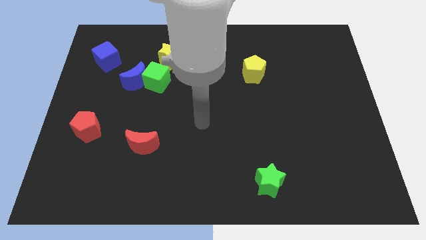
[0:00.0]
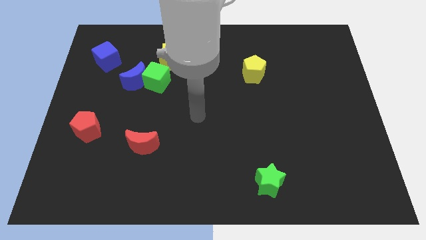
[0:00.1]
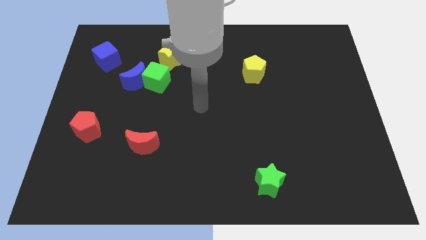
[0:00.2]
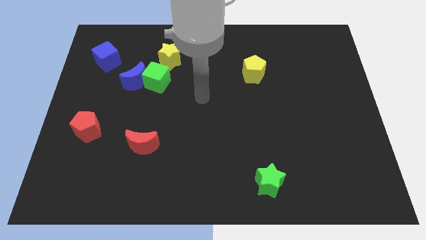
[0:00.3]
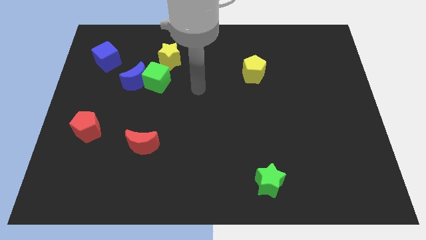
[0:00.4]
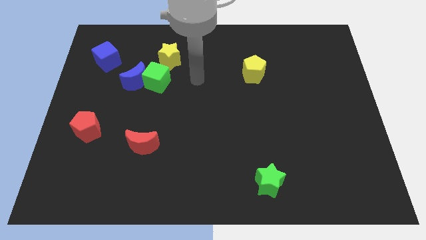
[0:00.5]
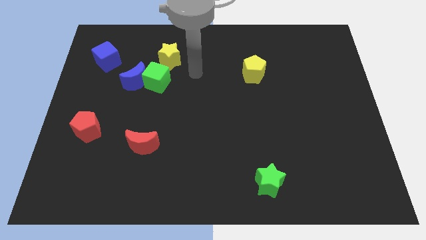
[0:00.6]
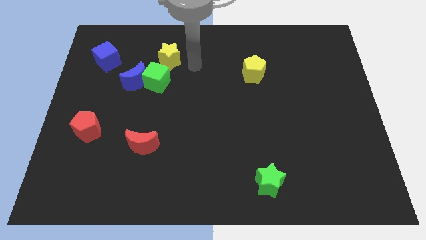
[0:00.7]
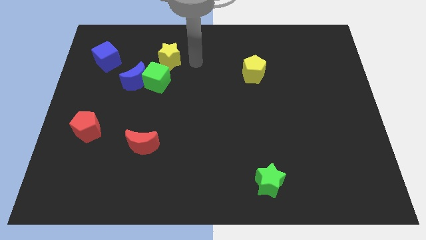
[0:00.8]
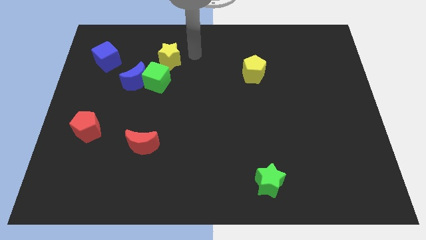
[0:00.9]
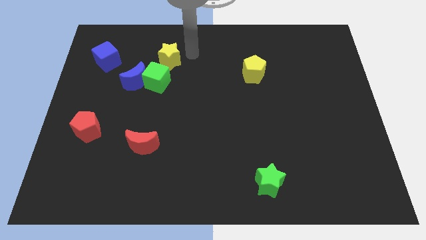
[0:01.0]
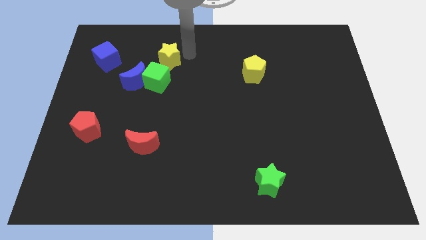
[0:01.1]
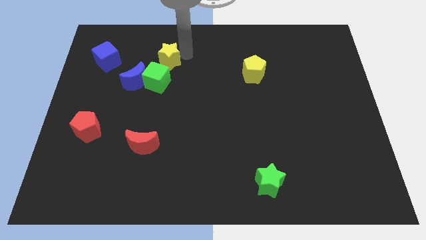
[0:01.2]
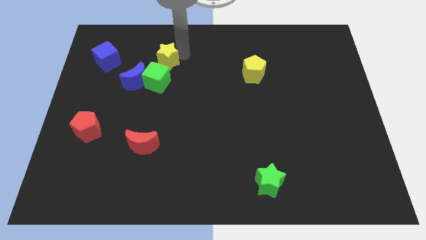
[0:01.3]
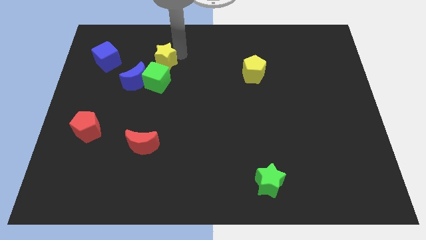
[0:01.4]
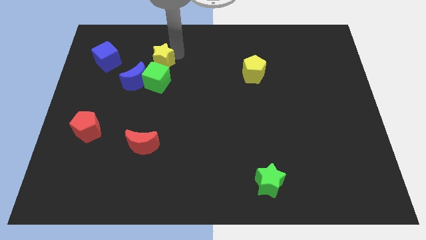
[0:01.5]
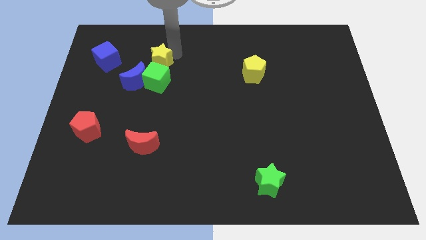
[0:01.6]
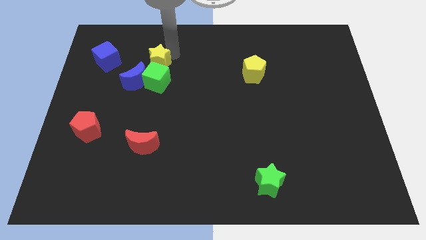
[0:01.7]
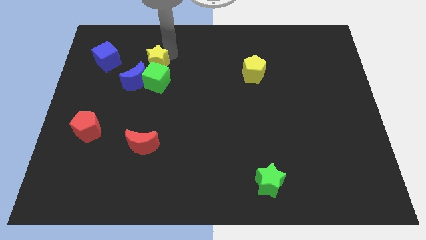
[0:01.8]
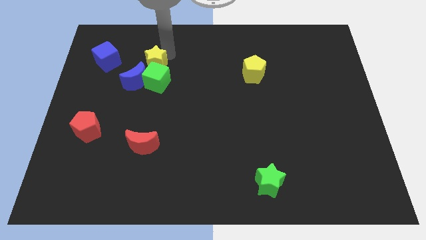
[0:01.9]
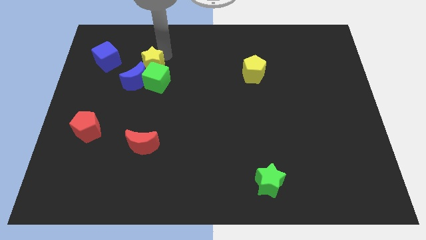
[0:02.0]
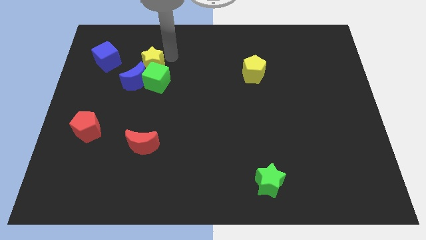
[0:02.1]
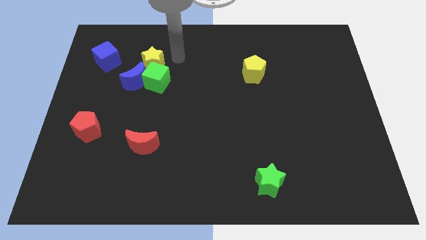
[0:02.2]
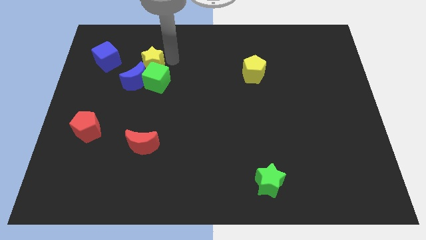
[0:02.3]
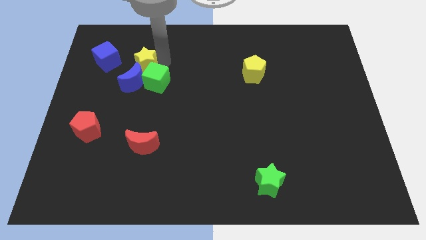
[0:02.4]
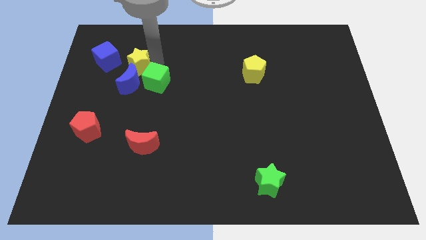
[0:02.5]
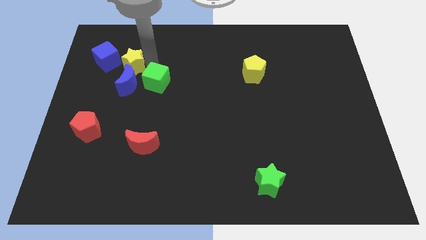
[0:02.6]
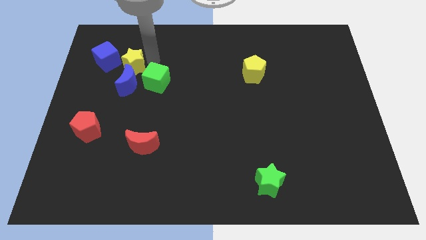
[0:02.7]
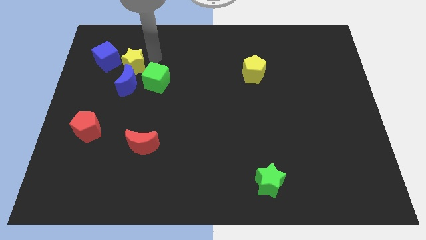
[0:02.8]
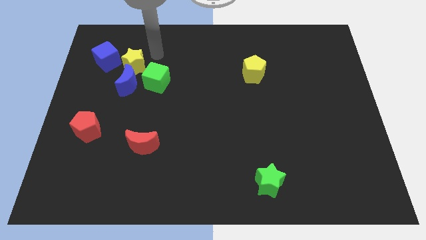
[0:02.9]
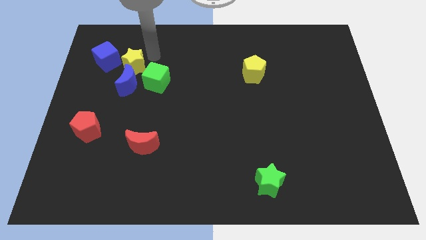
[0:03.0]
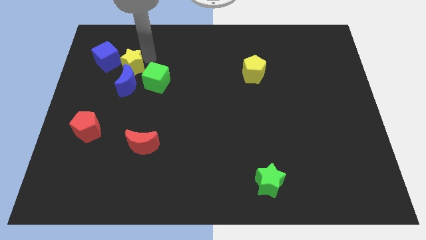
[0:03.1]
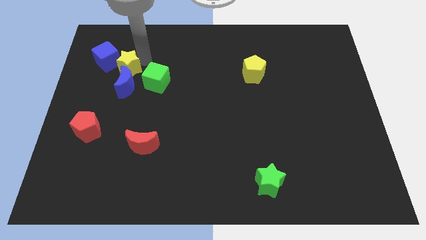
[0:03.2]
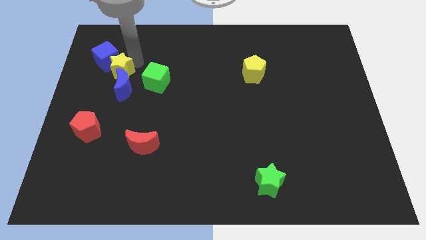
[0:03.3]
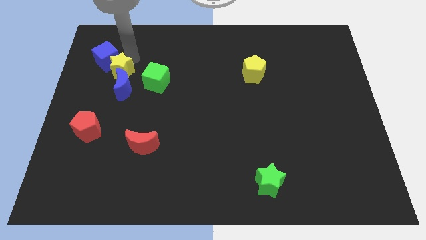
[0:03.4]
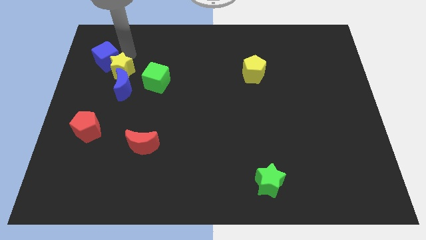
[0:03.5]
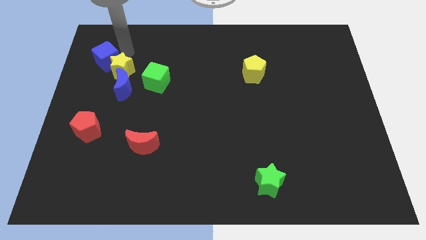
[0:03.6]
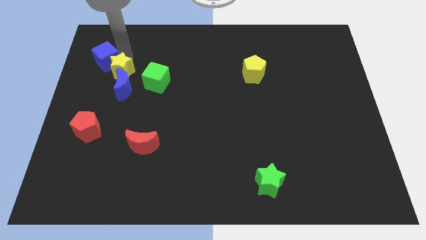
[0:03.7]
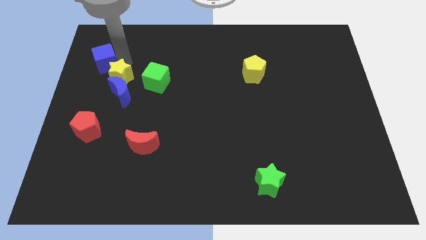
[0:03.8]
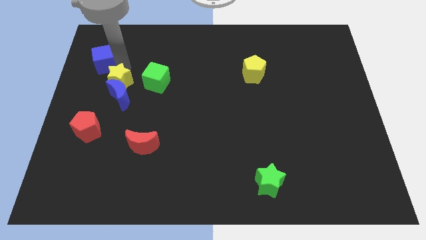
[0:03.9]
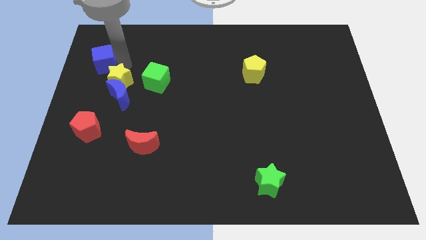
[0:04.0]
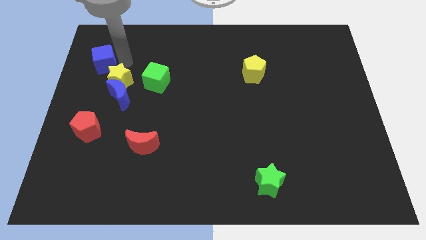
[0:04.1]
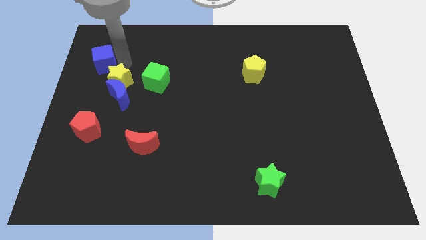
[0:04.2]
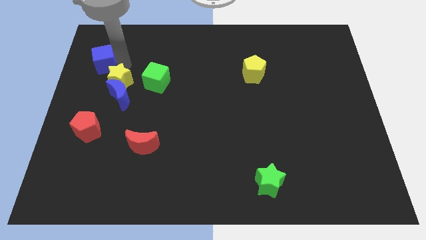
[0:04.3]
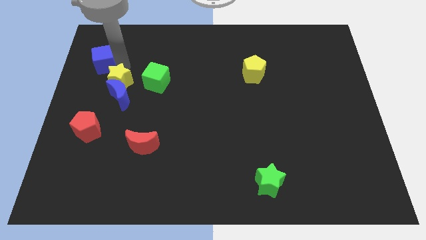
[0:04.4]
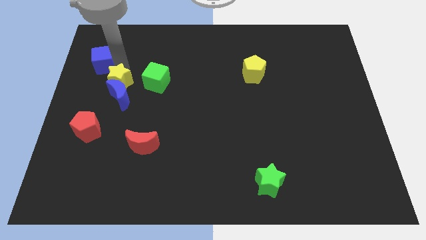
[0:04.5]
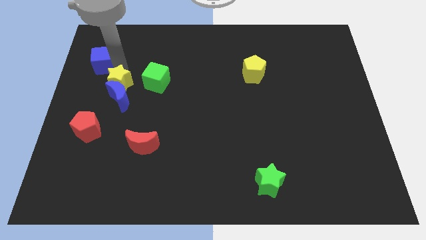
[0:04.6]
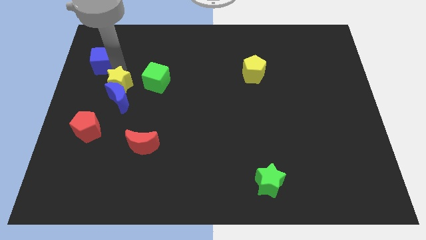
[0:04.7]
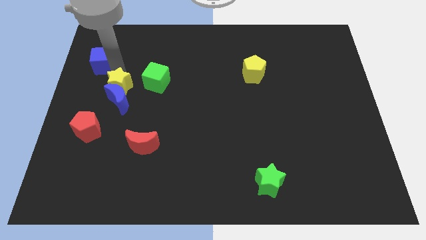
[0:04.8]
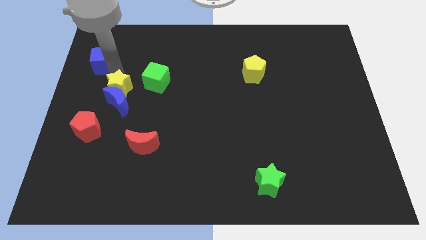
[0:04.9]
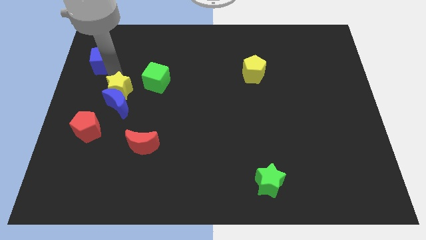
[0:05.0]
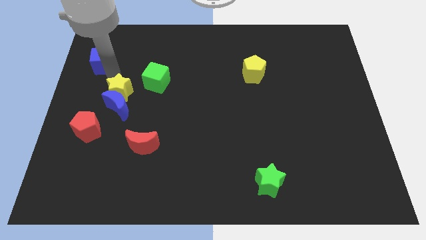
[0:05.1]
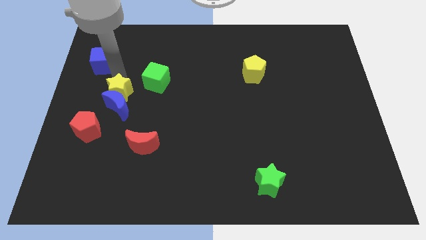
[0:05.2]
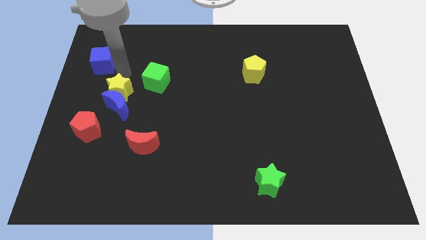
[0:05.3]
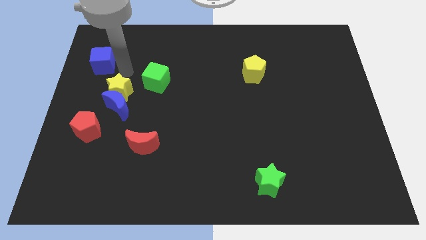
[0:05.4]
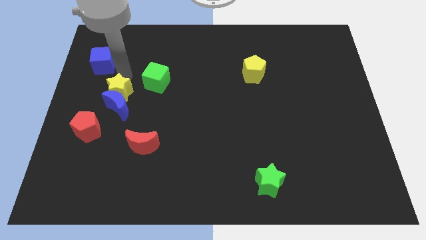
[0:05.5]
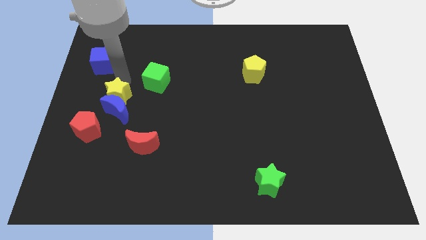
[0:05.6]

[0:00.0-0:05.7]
move the yellow star to the top right side of the red pentagon

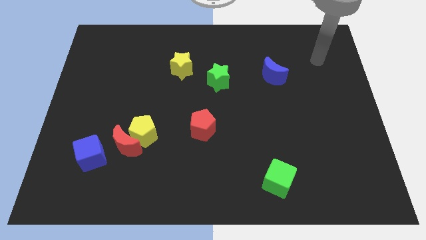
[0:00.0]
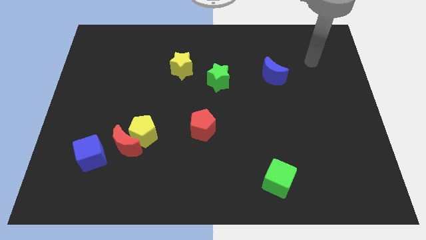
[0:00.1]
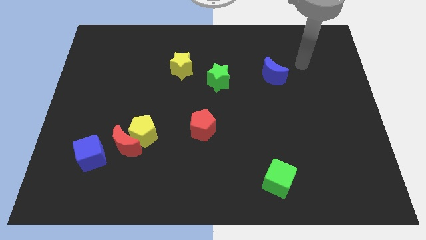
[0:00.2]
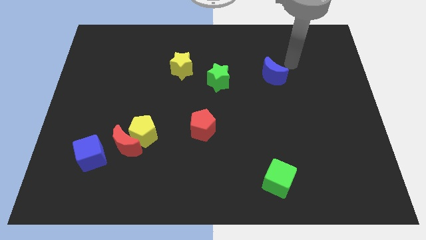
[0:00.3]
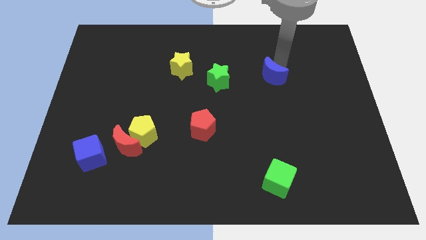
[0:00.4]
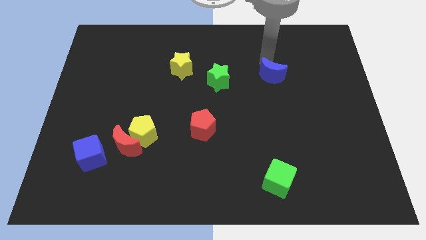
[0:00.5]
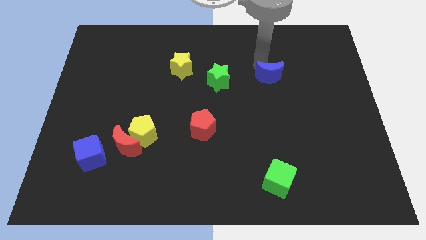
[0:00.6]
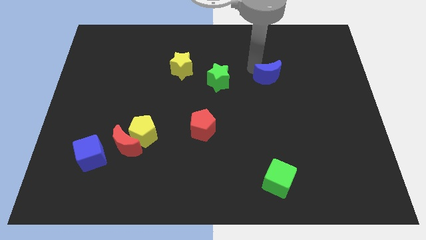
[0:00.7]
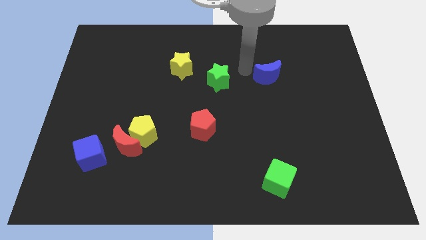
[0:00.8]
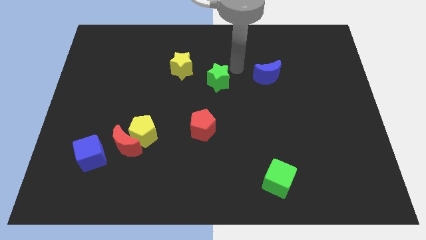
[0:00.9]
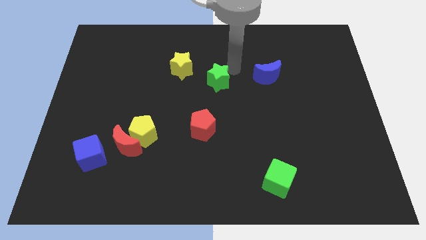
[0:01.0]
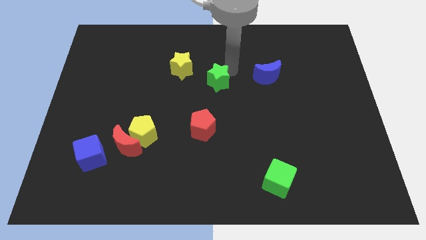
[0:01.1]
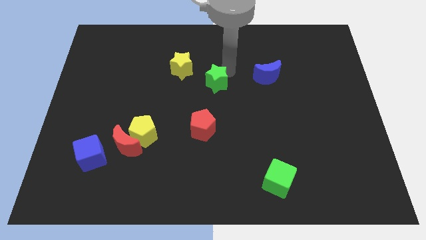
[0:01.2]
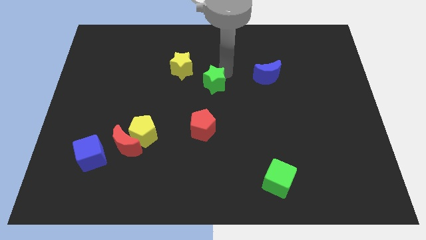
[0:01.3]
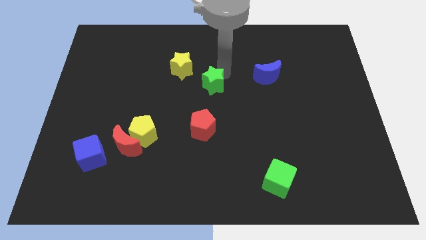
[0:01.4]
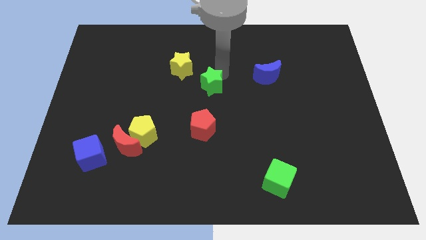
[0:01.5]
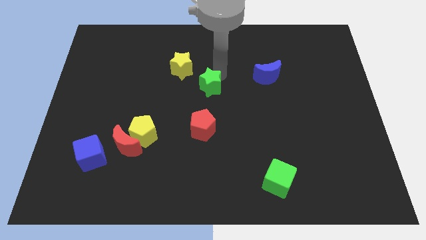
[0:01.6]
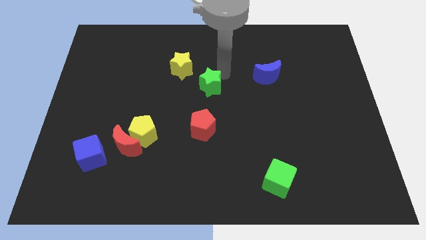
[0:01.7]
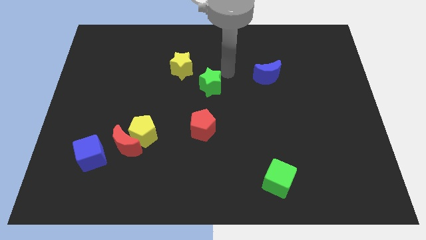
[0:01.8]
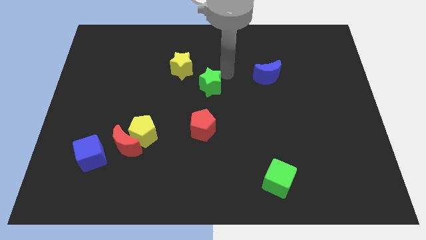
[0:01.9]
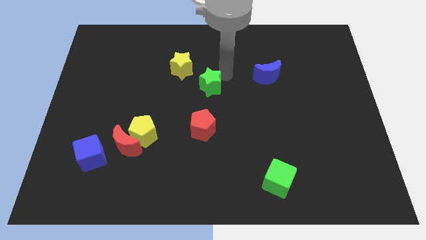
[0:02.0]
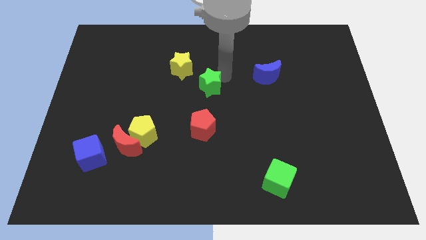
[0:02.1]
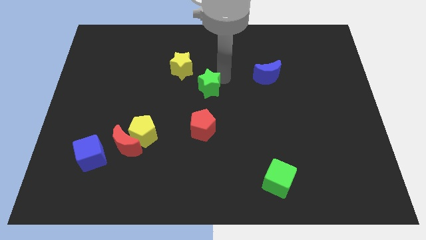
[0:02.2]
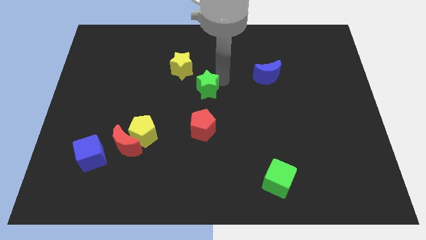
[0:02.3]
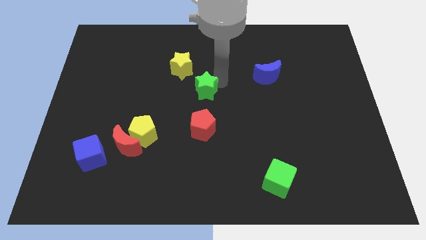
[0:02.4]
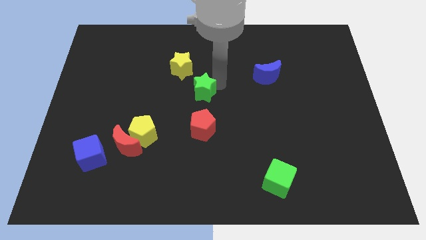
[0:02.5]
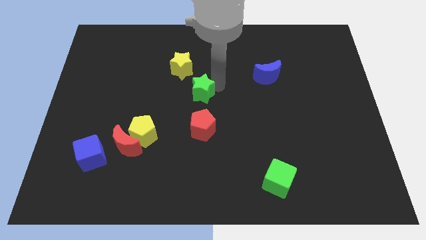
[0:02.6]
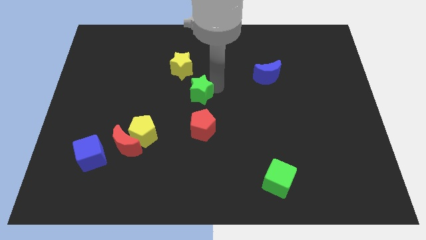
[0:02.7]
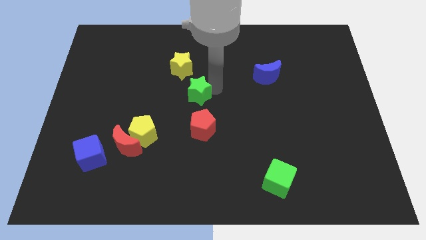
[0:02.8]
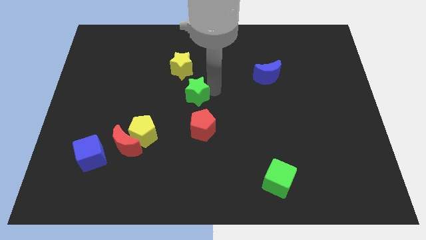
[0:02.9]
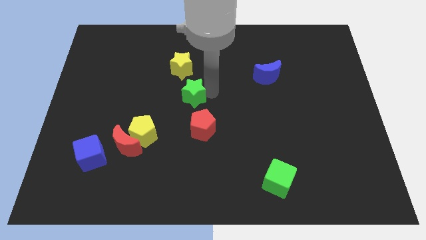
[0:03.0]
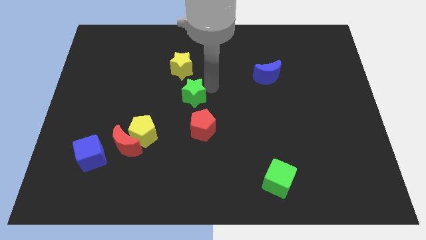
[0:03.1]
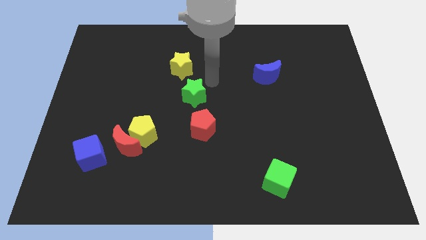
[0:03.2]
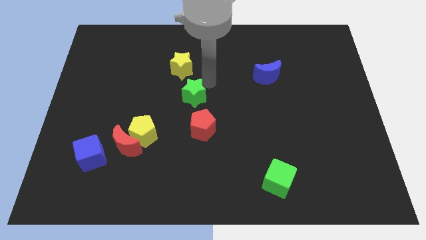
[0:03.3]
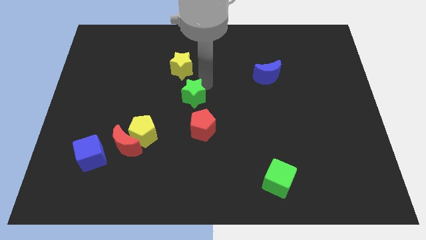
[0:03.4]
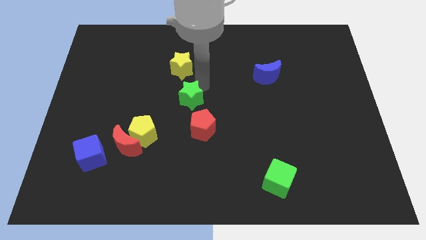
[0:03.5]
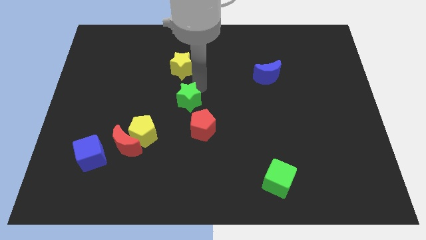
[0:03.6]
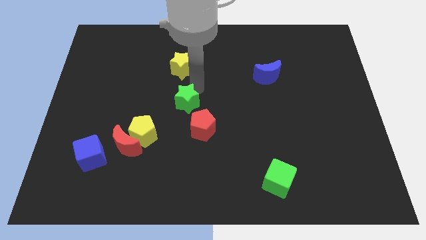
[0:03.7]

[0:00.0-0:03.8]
slide the green star to the top right of the yellow pentagon
